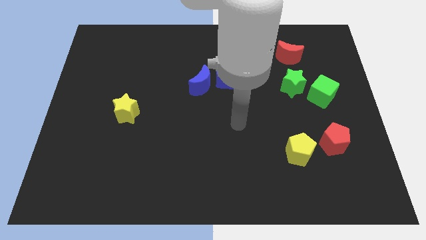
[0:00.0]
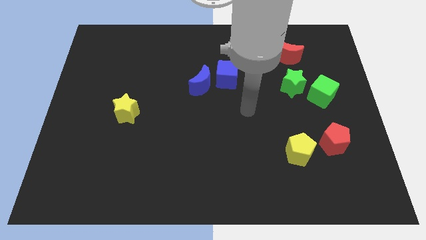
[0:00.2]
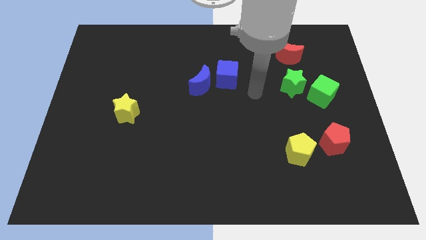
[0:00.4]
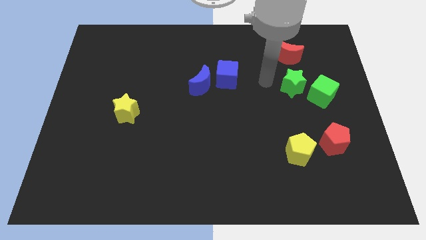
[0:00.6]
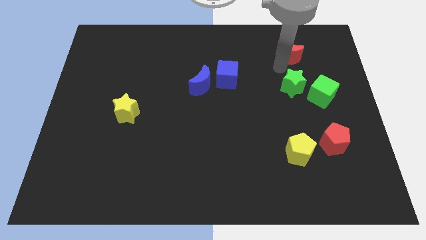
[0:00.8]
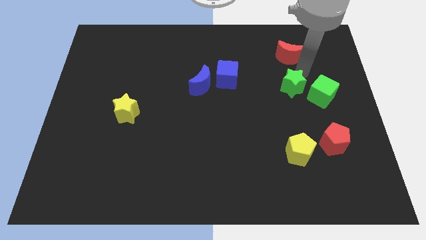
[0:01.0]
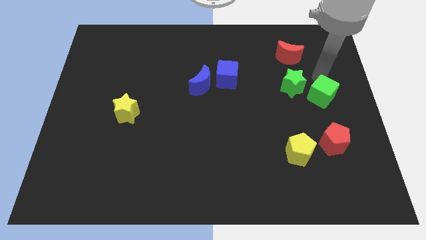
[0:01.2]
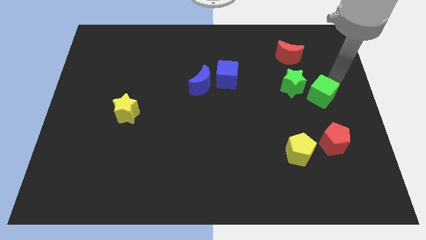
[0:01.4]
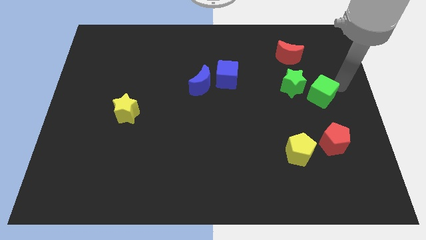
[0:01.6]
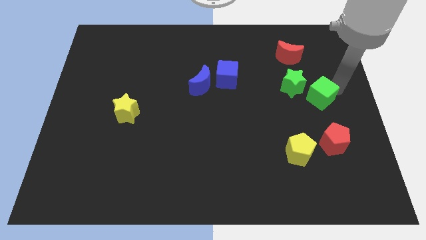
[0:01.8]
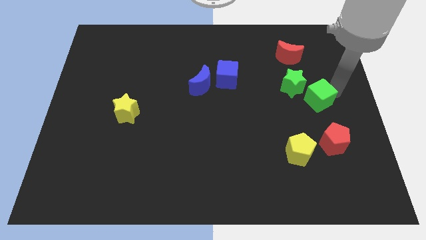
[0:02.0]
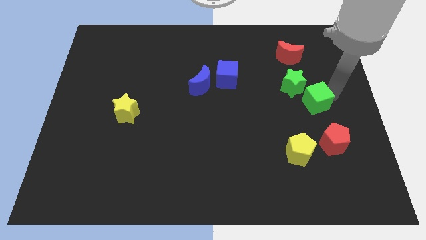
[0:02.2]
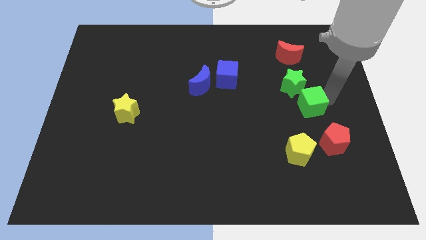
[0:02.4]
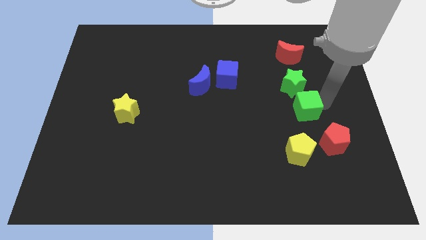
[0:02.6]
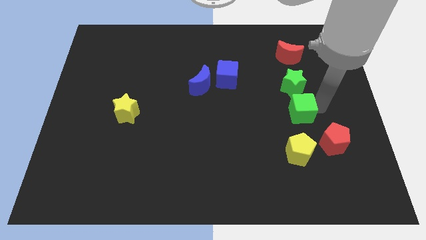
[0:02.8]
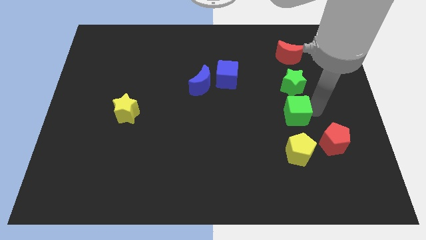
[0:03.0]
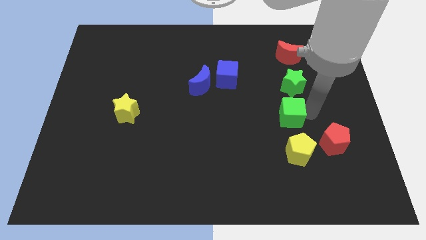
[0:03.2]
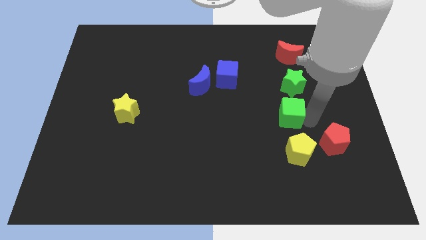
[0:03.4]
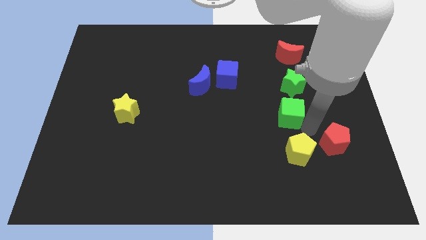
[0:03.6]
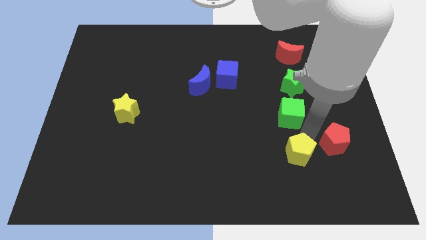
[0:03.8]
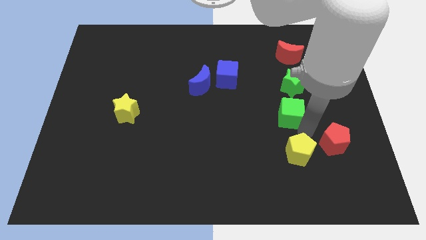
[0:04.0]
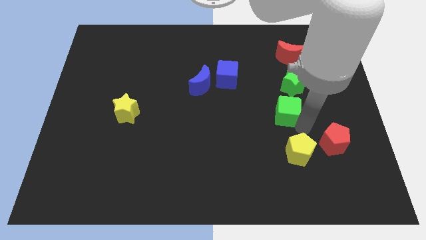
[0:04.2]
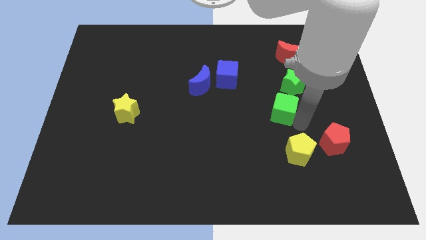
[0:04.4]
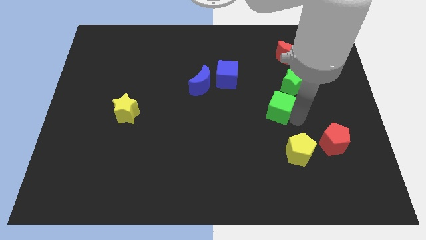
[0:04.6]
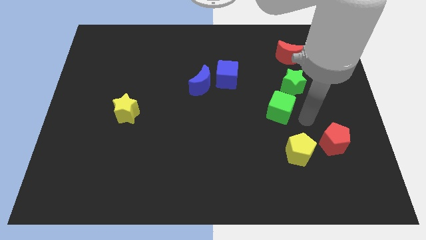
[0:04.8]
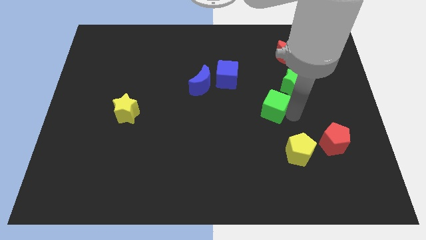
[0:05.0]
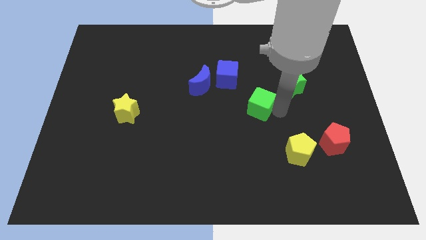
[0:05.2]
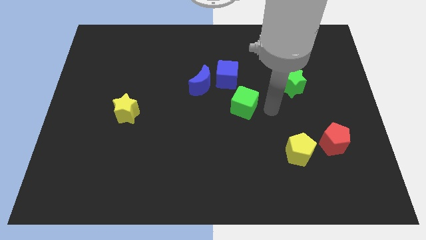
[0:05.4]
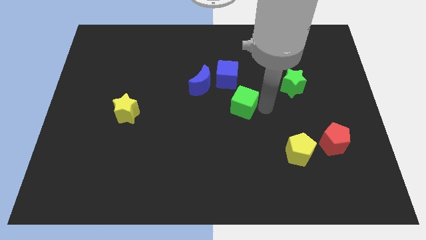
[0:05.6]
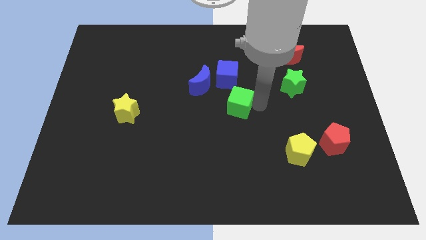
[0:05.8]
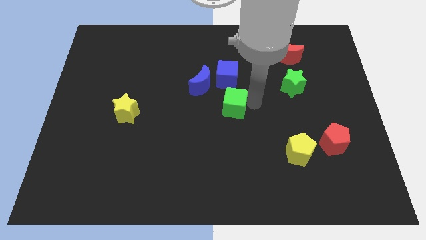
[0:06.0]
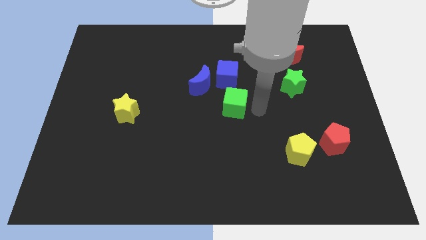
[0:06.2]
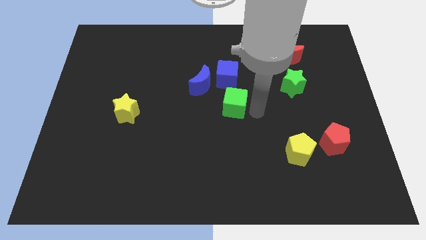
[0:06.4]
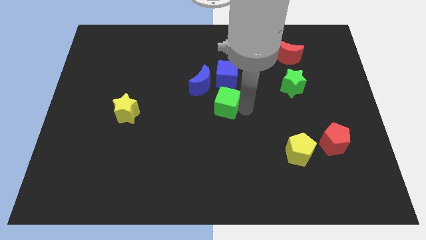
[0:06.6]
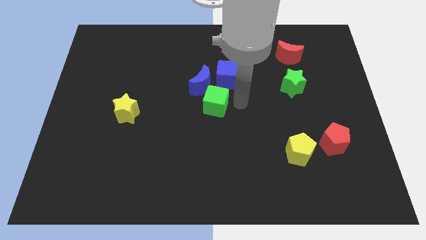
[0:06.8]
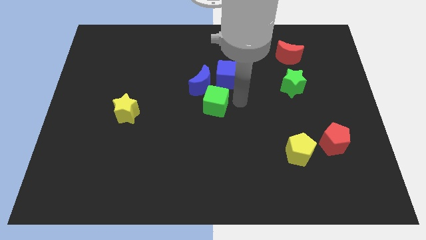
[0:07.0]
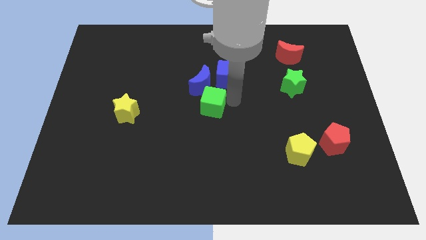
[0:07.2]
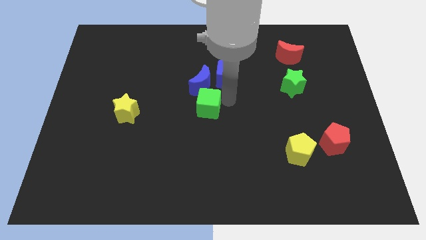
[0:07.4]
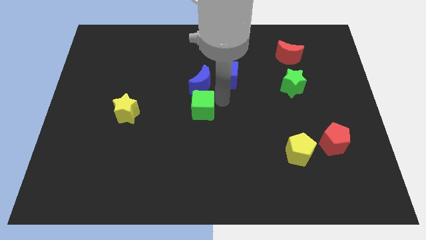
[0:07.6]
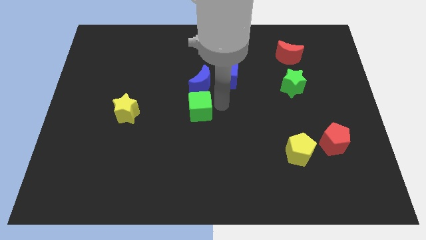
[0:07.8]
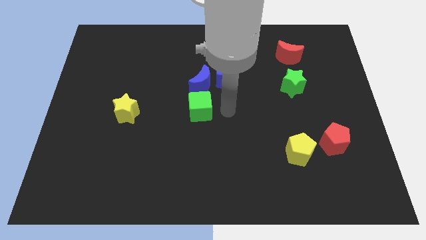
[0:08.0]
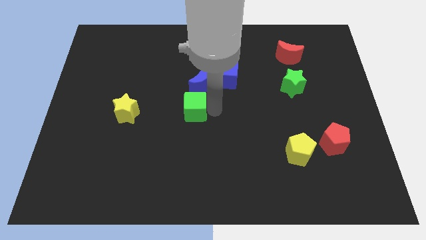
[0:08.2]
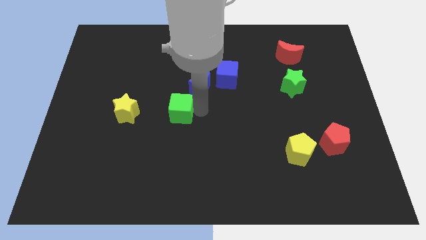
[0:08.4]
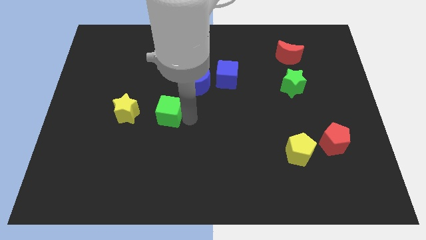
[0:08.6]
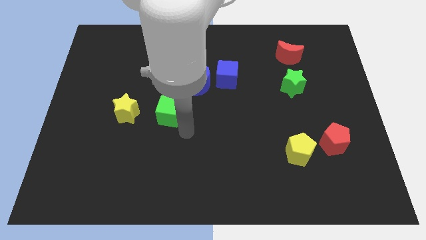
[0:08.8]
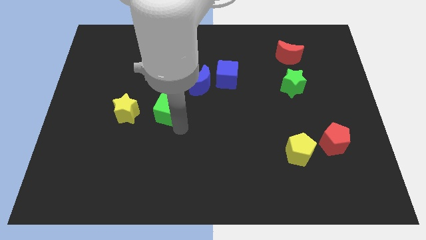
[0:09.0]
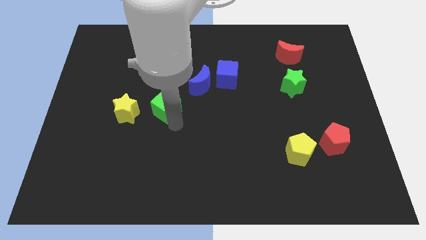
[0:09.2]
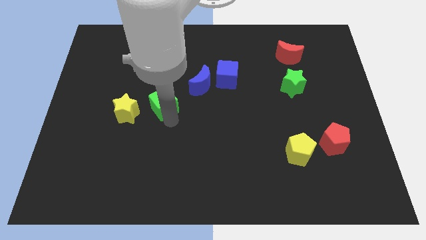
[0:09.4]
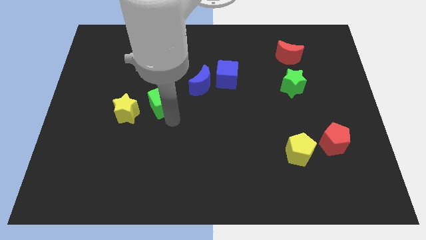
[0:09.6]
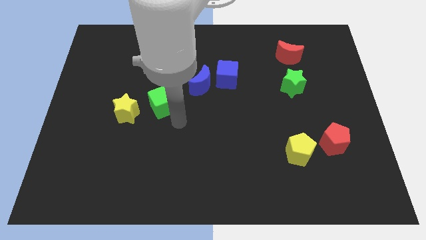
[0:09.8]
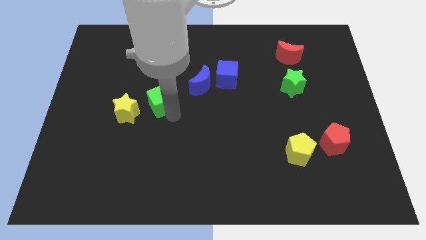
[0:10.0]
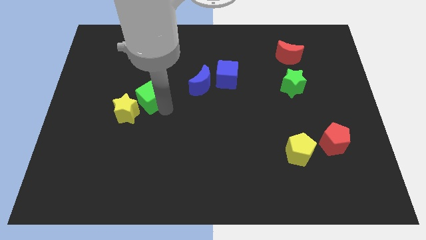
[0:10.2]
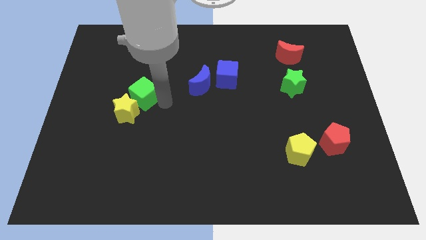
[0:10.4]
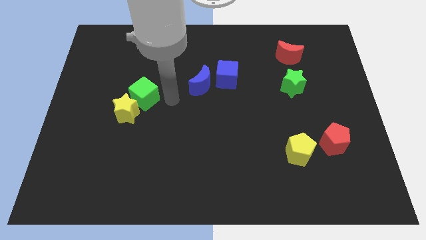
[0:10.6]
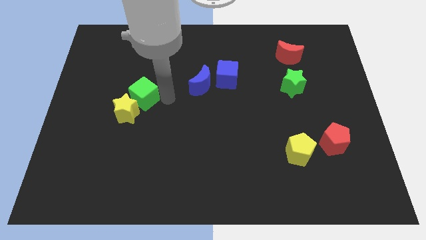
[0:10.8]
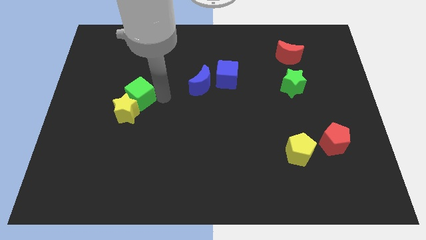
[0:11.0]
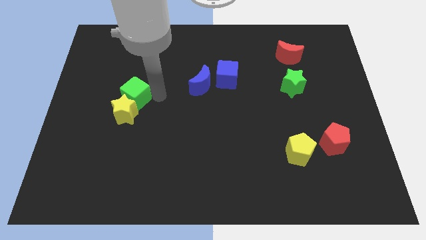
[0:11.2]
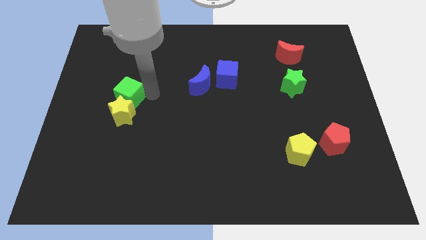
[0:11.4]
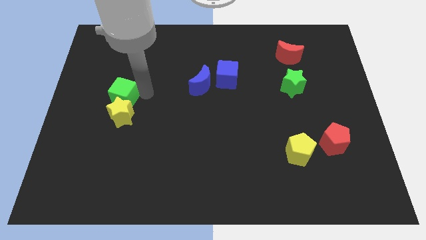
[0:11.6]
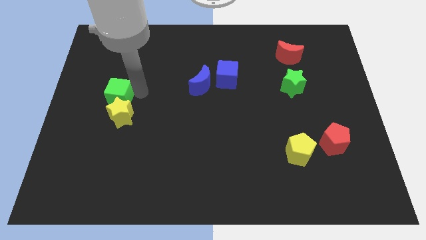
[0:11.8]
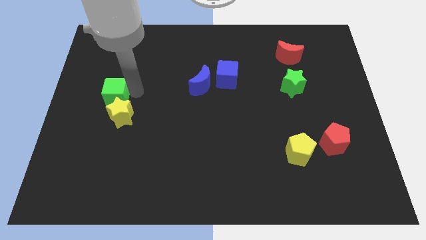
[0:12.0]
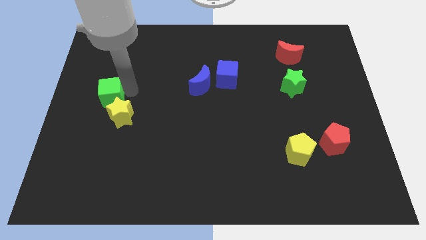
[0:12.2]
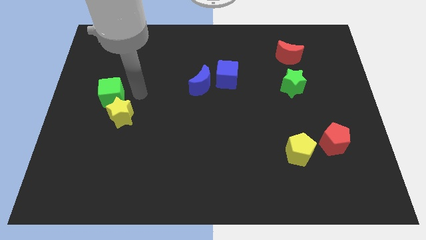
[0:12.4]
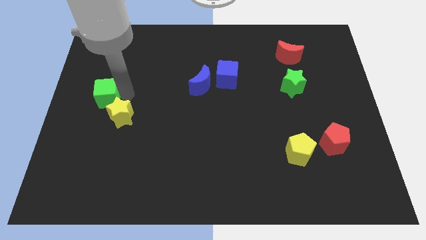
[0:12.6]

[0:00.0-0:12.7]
push the green cube to the left side

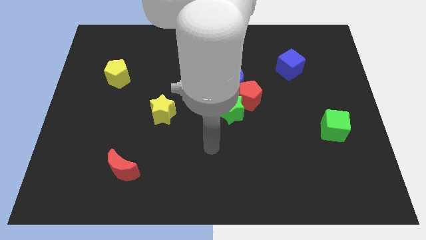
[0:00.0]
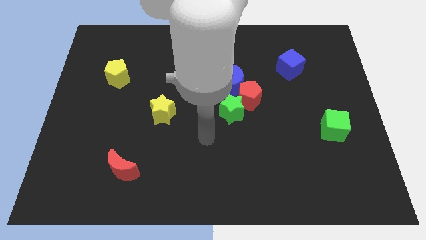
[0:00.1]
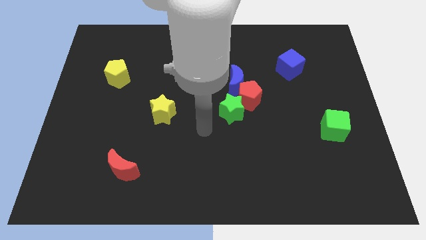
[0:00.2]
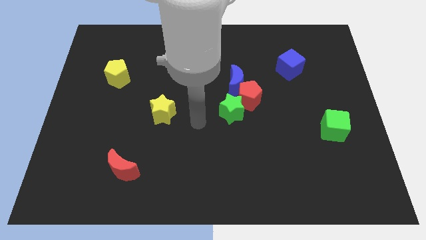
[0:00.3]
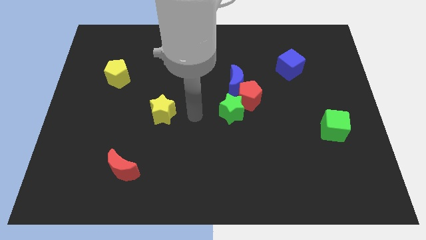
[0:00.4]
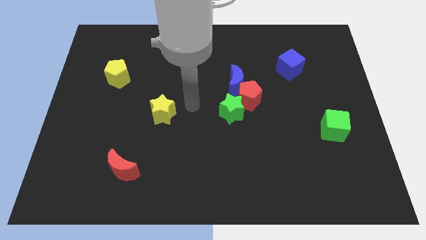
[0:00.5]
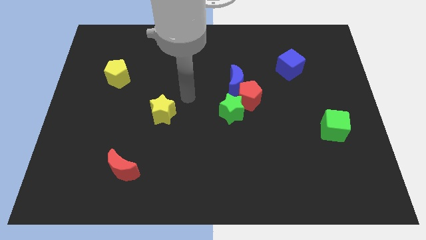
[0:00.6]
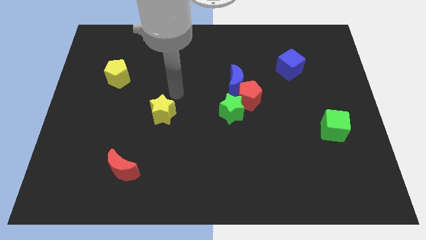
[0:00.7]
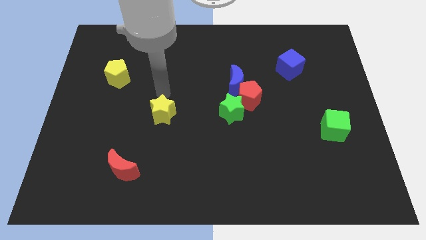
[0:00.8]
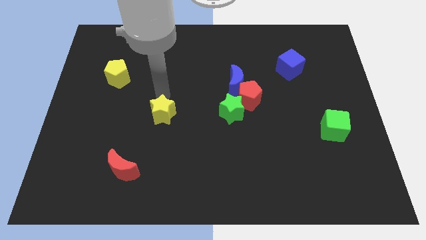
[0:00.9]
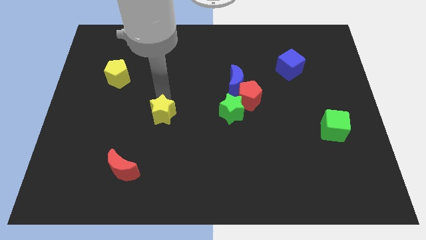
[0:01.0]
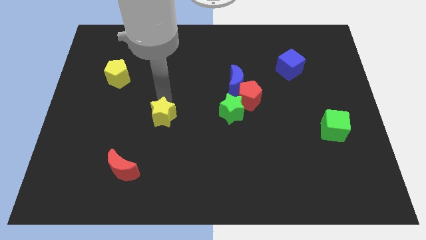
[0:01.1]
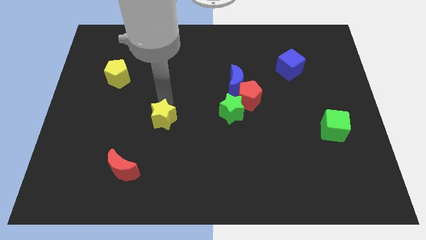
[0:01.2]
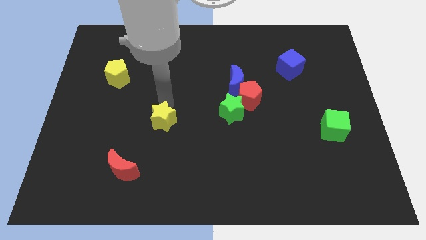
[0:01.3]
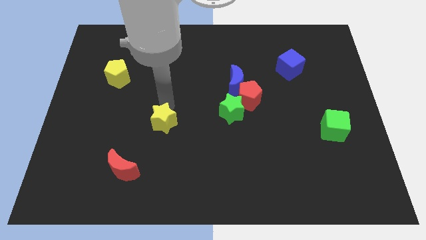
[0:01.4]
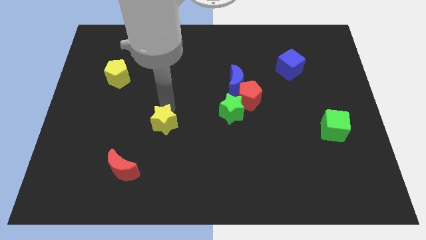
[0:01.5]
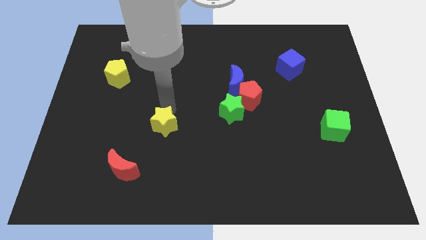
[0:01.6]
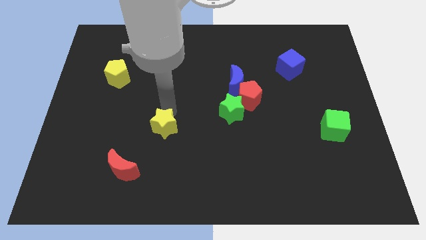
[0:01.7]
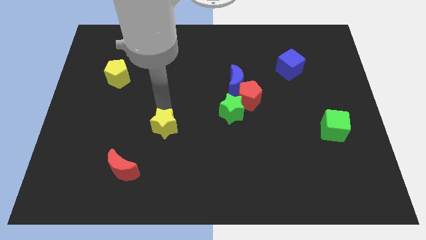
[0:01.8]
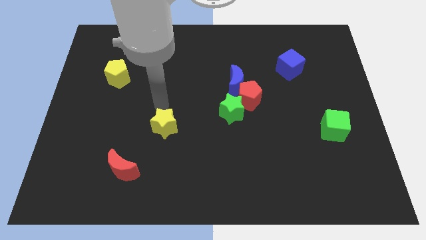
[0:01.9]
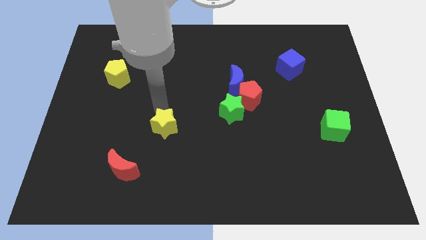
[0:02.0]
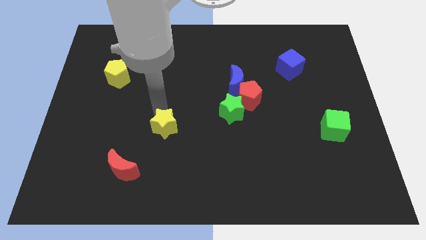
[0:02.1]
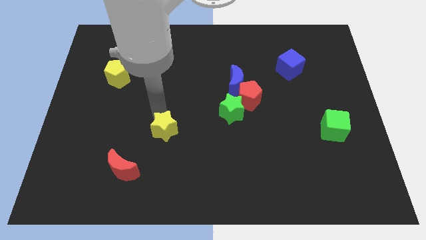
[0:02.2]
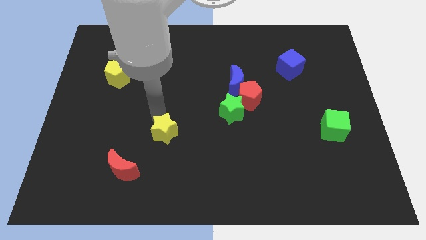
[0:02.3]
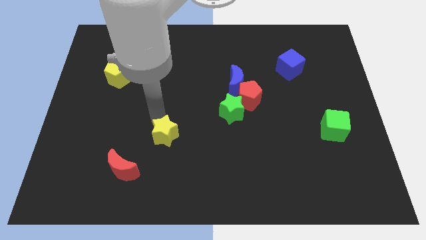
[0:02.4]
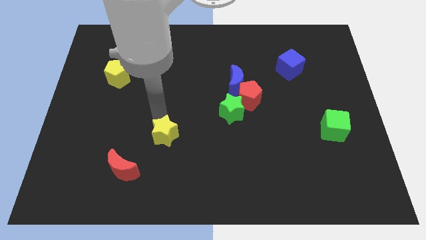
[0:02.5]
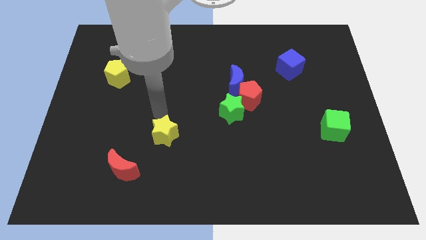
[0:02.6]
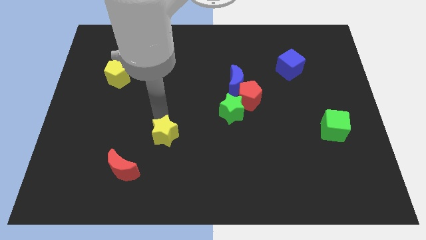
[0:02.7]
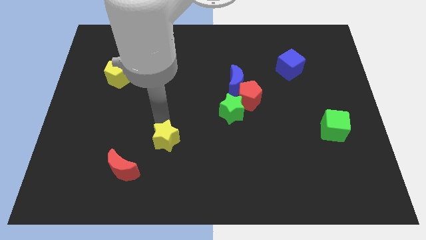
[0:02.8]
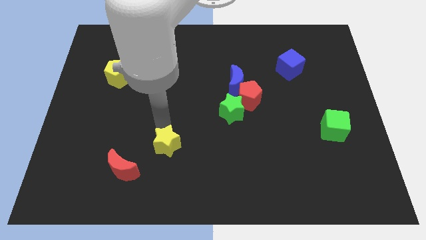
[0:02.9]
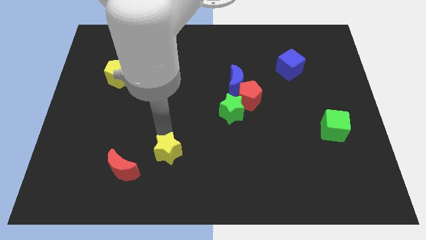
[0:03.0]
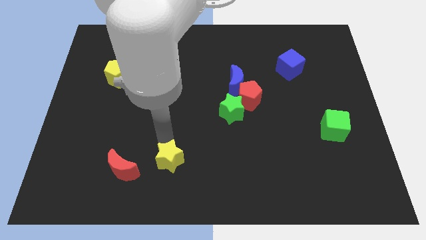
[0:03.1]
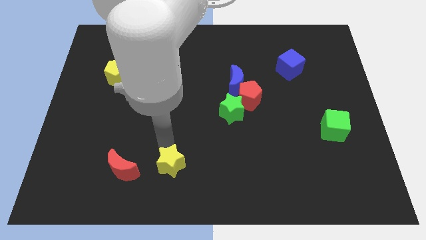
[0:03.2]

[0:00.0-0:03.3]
put the yellow star to the bottom side
